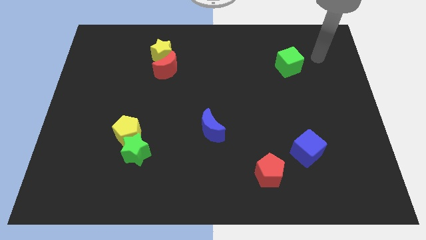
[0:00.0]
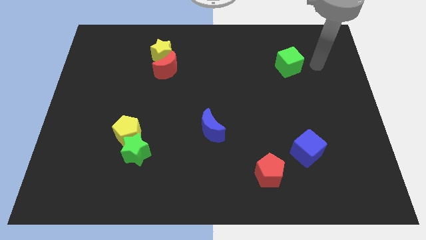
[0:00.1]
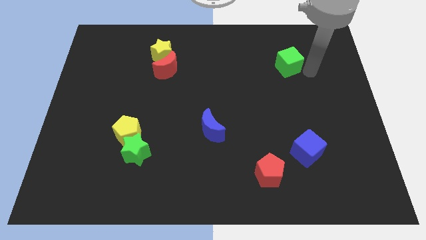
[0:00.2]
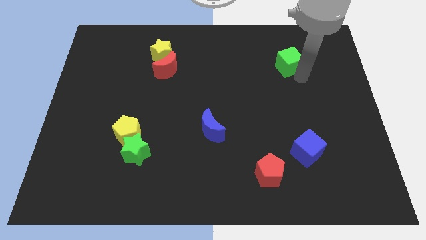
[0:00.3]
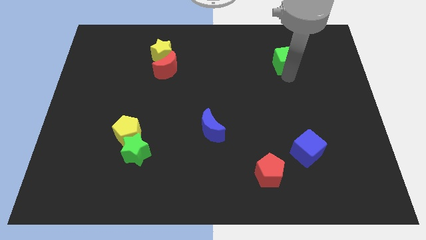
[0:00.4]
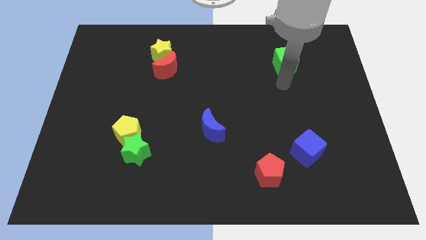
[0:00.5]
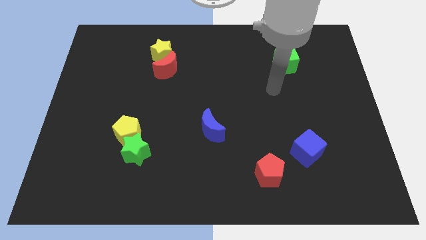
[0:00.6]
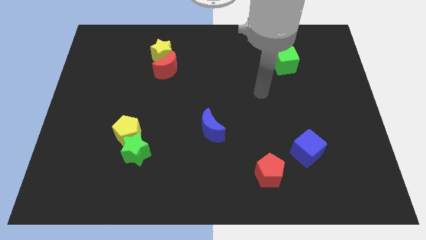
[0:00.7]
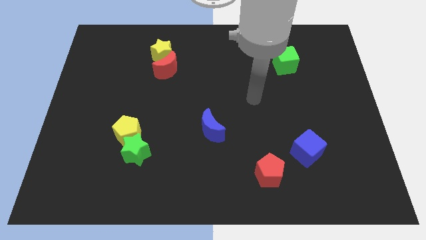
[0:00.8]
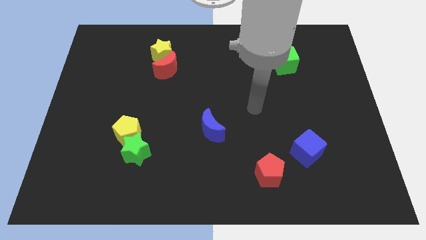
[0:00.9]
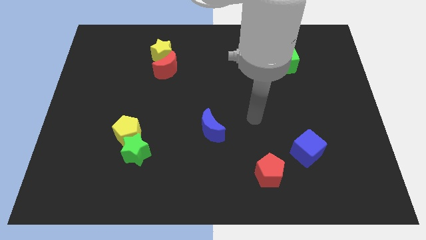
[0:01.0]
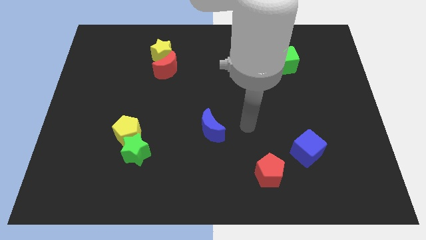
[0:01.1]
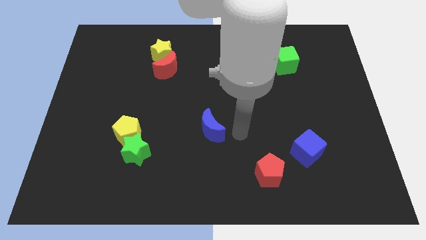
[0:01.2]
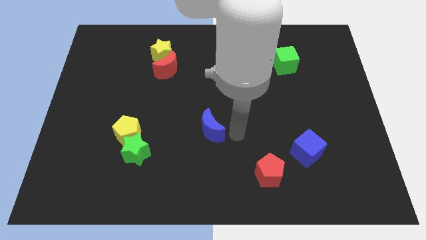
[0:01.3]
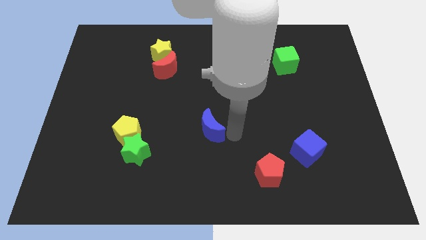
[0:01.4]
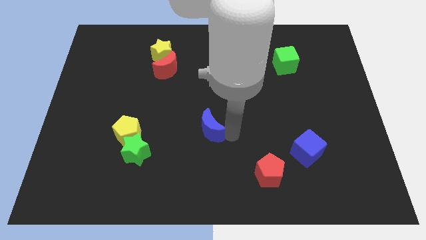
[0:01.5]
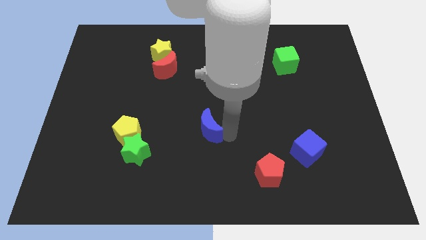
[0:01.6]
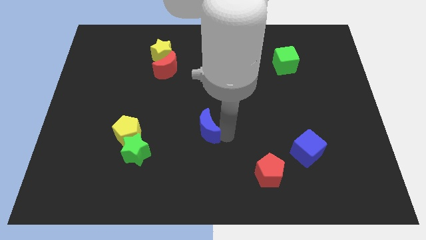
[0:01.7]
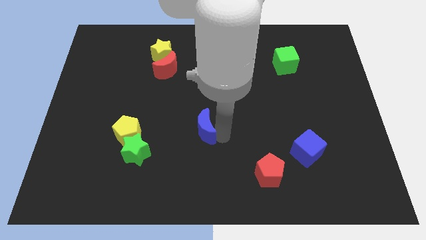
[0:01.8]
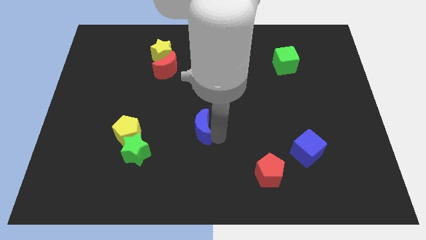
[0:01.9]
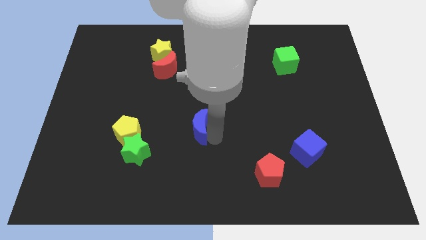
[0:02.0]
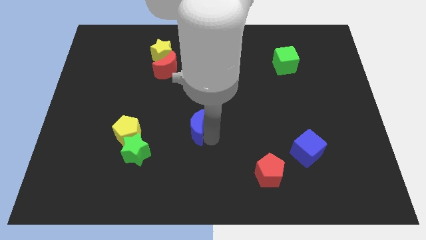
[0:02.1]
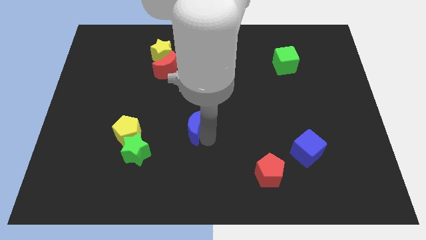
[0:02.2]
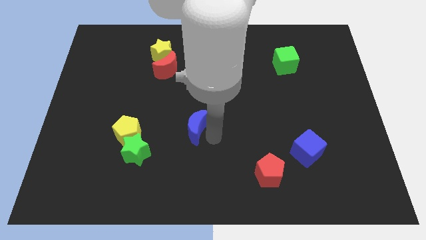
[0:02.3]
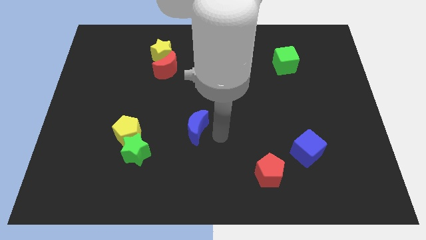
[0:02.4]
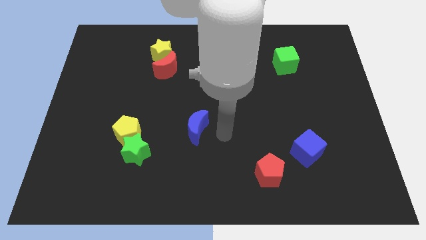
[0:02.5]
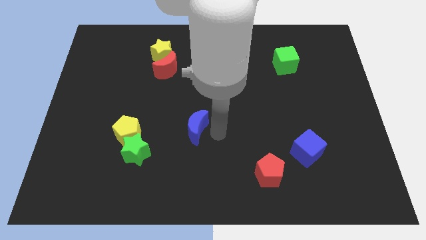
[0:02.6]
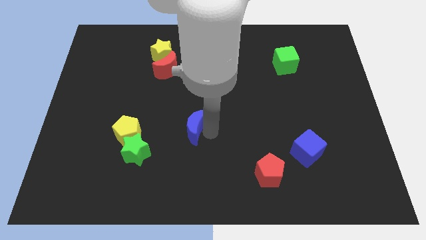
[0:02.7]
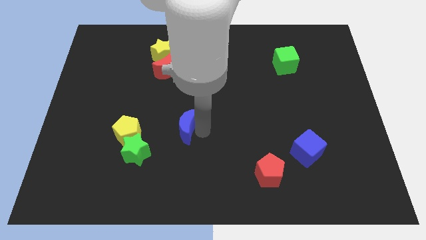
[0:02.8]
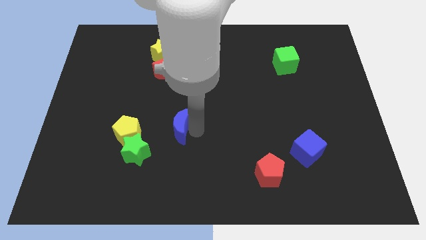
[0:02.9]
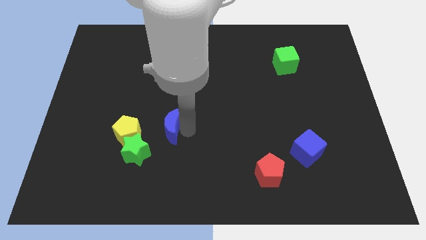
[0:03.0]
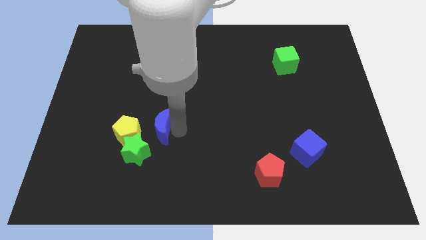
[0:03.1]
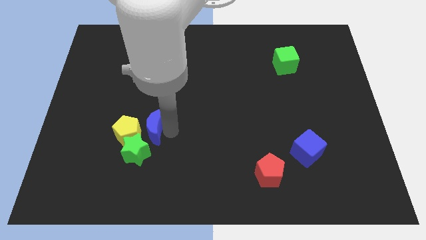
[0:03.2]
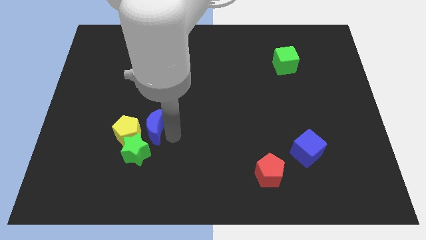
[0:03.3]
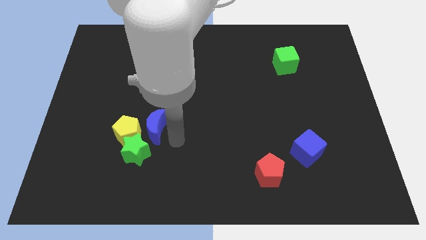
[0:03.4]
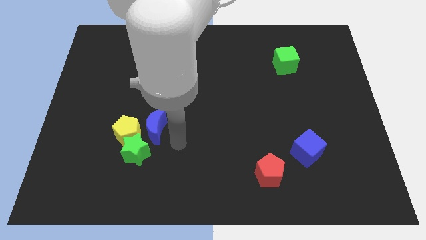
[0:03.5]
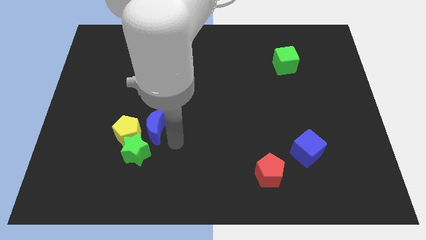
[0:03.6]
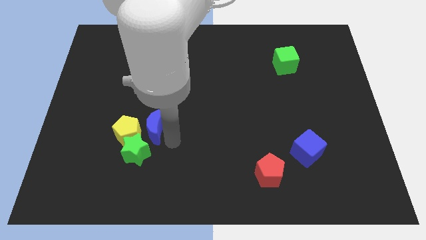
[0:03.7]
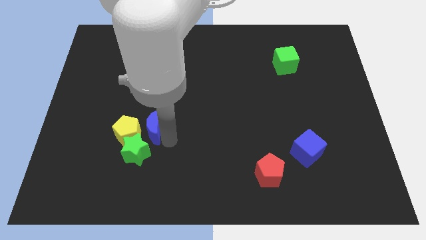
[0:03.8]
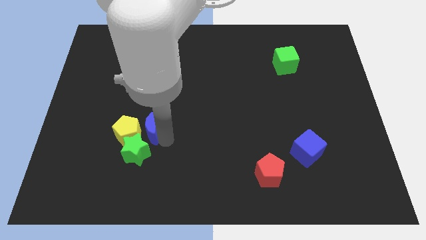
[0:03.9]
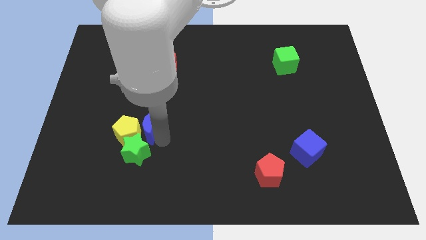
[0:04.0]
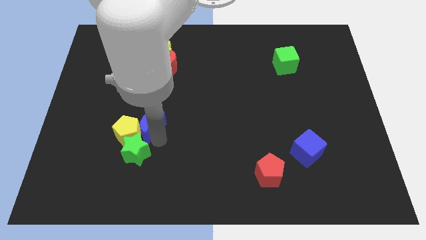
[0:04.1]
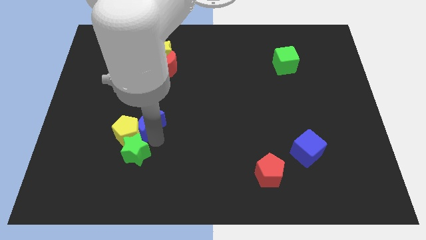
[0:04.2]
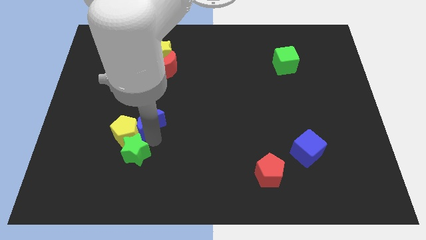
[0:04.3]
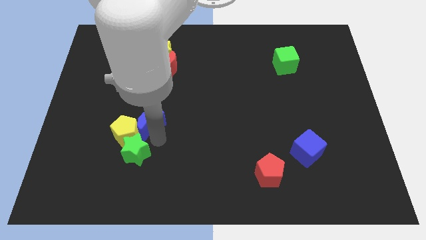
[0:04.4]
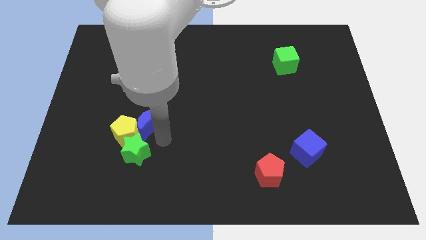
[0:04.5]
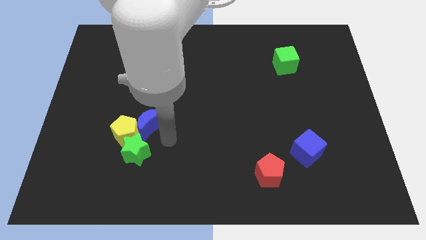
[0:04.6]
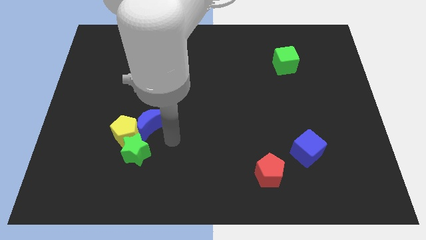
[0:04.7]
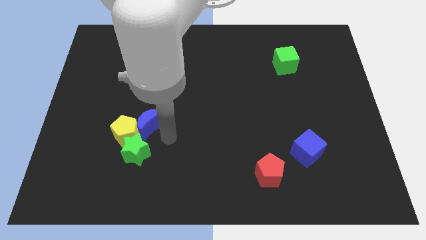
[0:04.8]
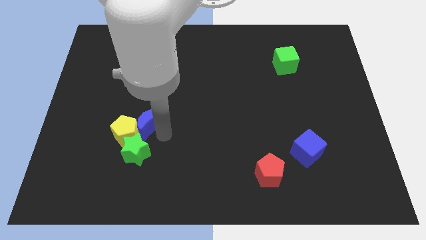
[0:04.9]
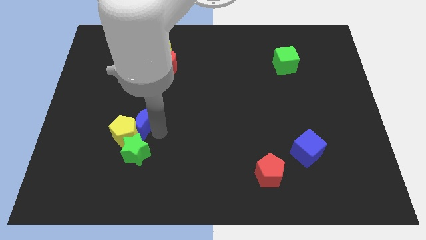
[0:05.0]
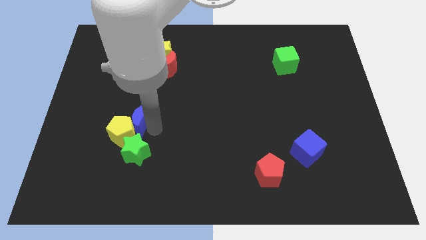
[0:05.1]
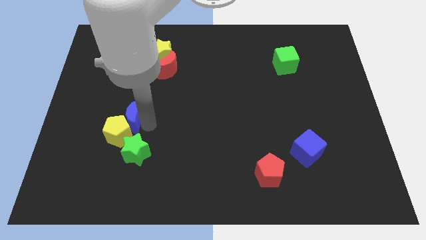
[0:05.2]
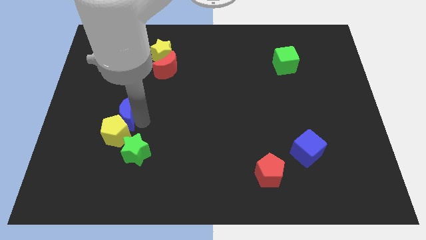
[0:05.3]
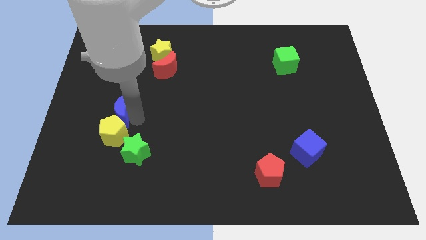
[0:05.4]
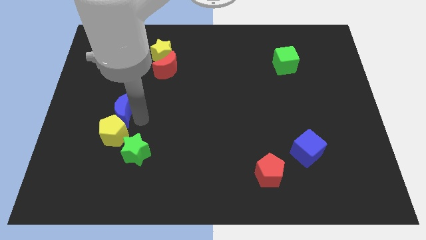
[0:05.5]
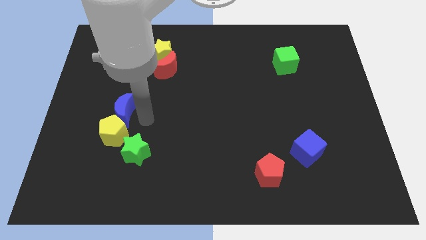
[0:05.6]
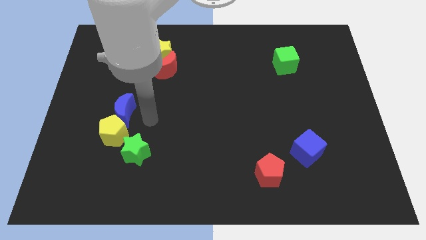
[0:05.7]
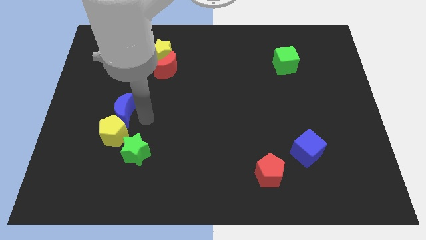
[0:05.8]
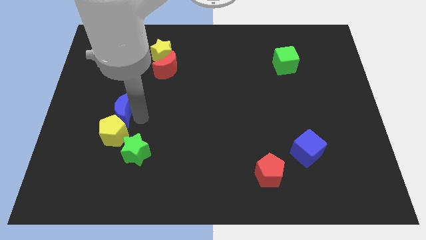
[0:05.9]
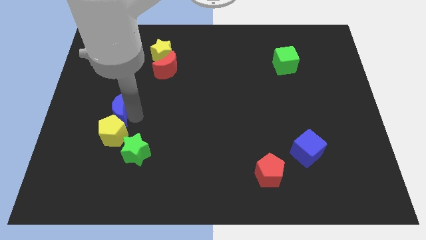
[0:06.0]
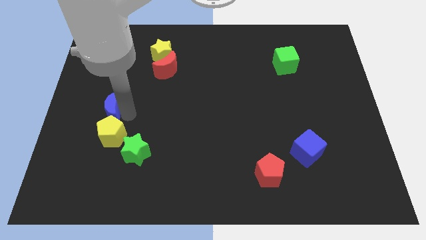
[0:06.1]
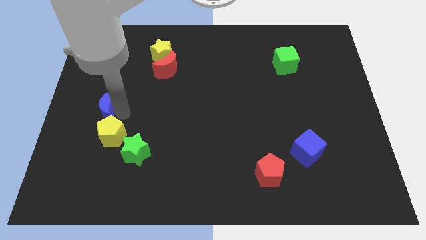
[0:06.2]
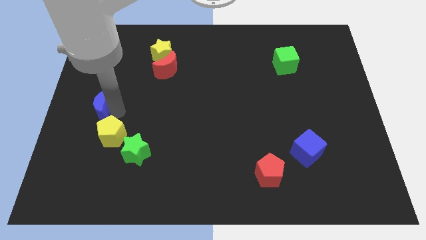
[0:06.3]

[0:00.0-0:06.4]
put the blue moon to the left side of the board

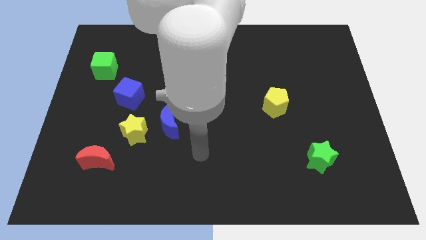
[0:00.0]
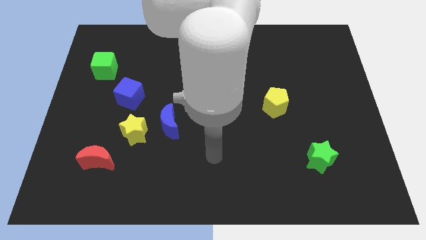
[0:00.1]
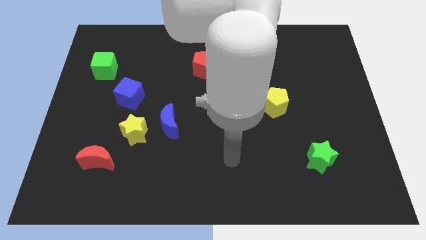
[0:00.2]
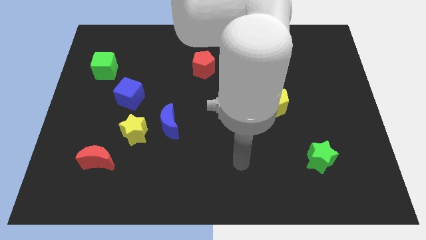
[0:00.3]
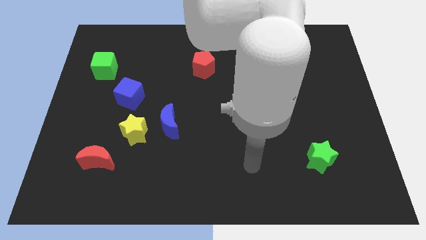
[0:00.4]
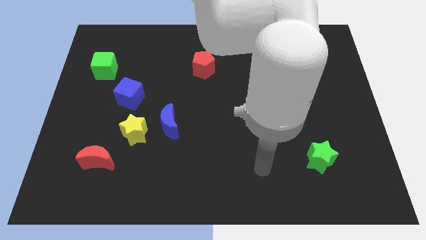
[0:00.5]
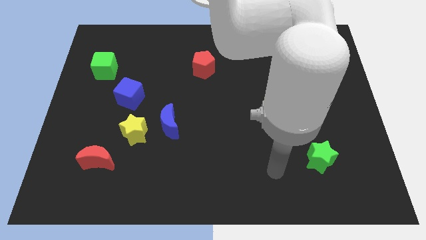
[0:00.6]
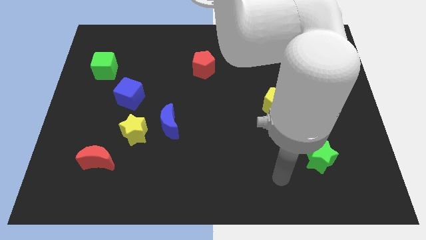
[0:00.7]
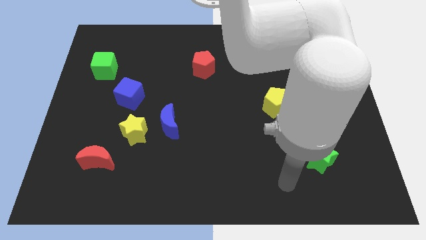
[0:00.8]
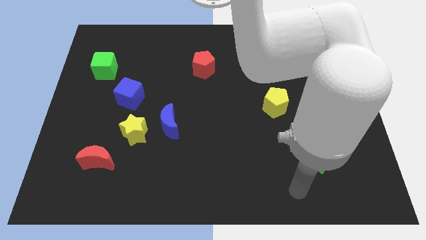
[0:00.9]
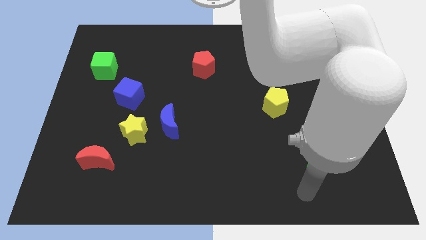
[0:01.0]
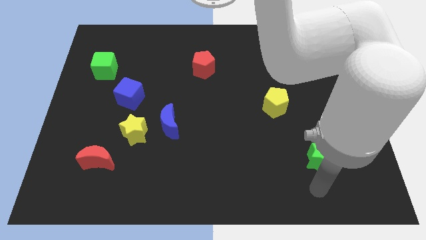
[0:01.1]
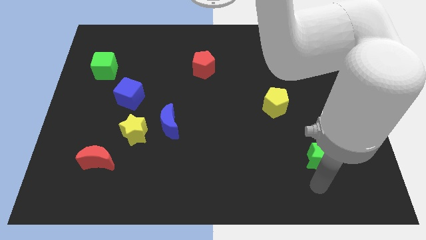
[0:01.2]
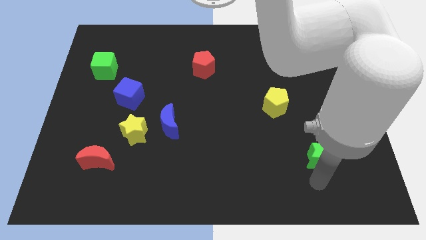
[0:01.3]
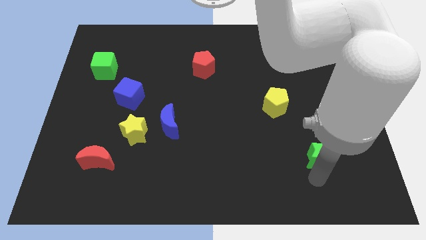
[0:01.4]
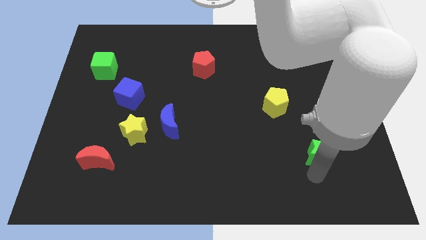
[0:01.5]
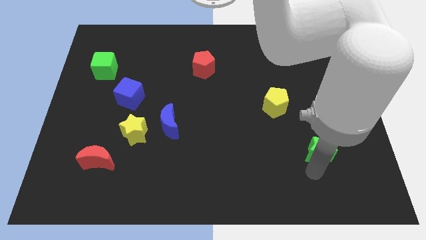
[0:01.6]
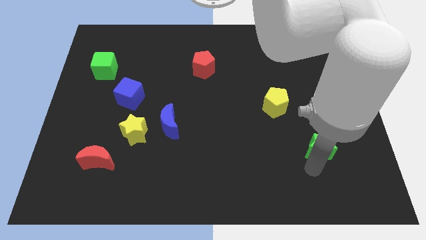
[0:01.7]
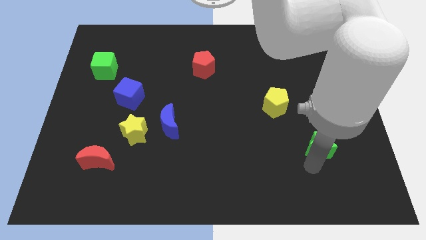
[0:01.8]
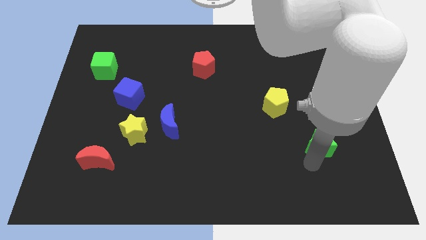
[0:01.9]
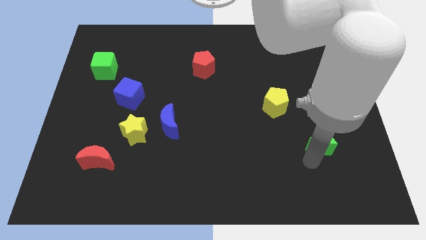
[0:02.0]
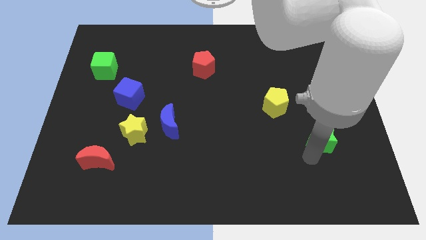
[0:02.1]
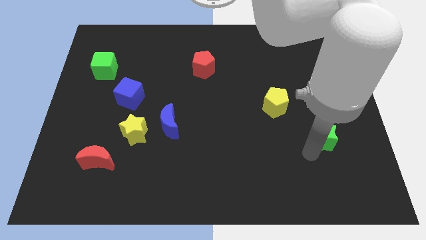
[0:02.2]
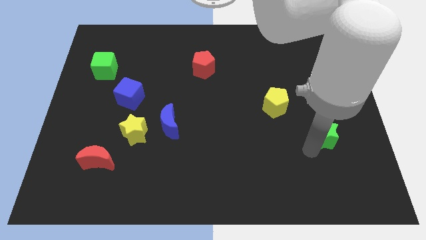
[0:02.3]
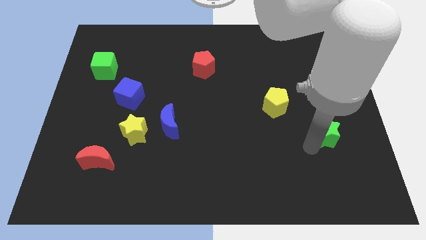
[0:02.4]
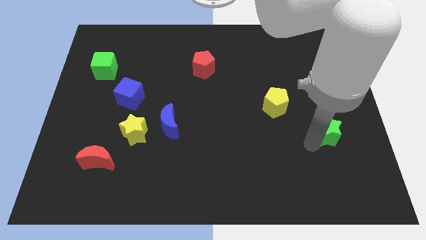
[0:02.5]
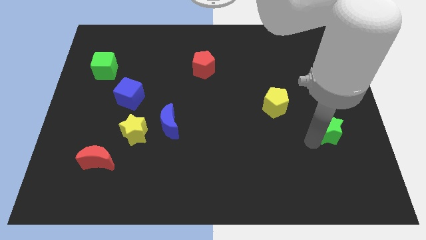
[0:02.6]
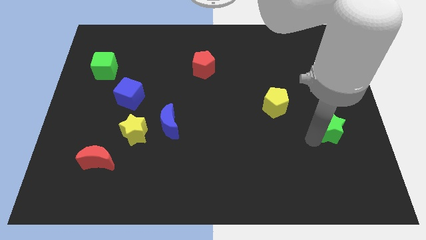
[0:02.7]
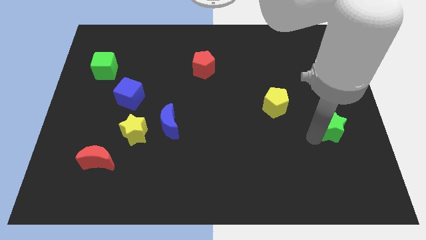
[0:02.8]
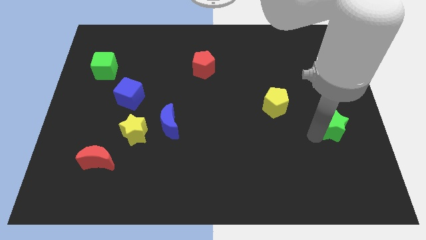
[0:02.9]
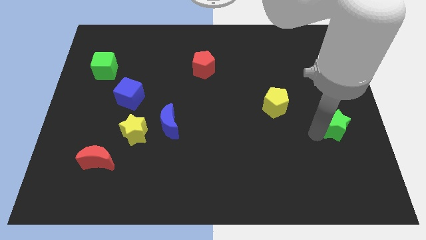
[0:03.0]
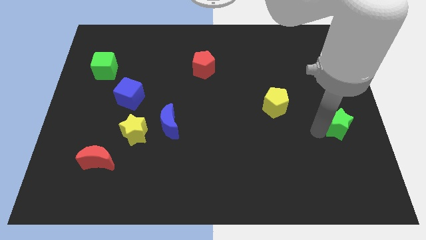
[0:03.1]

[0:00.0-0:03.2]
move the green star to the right side of the board
